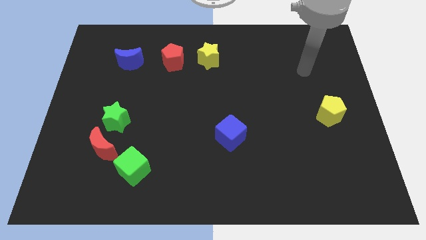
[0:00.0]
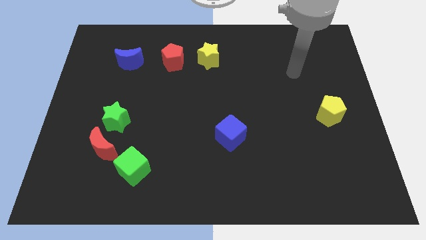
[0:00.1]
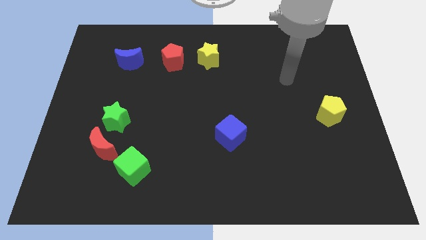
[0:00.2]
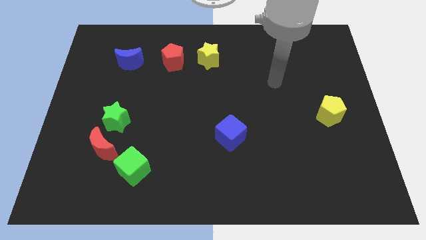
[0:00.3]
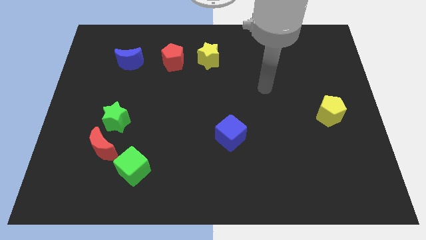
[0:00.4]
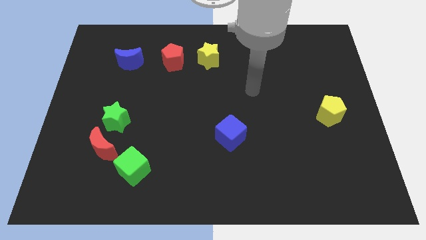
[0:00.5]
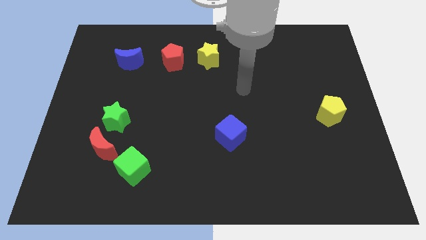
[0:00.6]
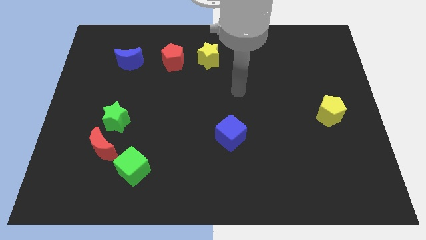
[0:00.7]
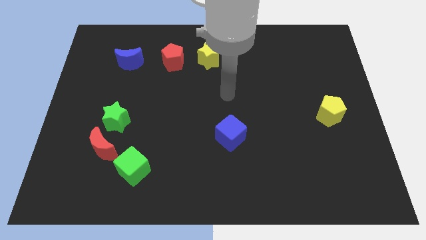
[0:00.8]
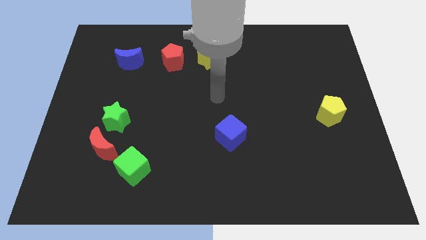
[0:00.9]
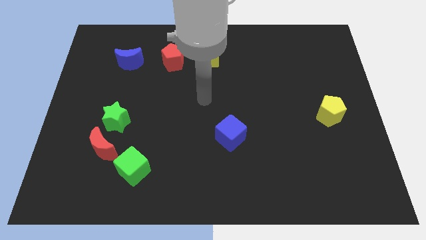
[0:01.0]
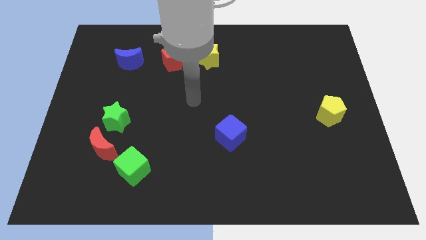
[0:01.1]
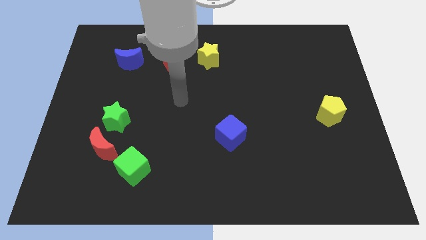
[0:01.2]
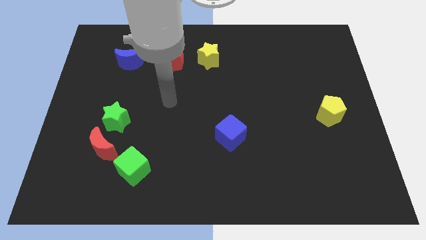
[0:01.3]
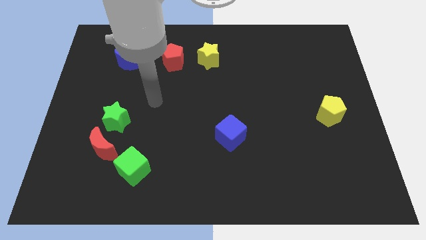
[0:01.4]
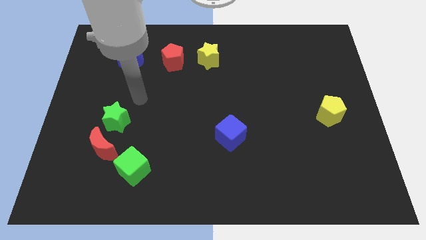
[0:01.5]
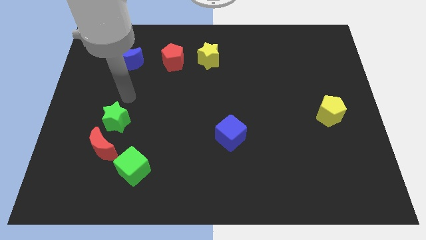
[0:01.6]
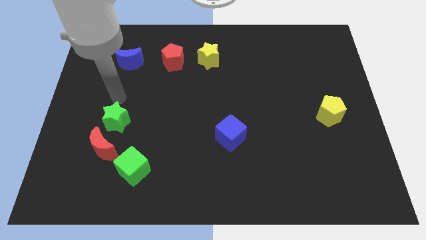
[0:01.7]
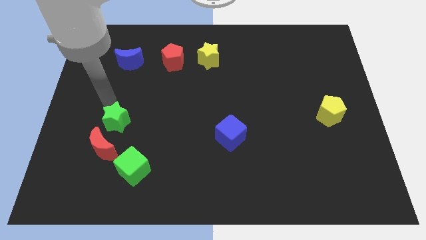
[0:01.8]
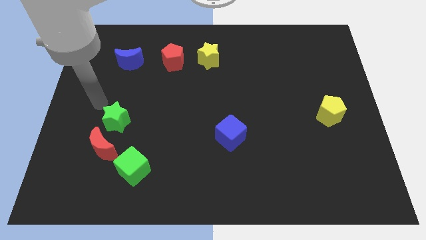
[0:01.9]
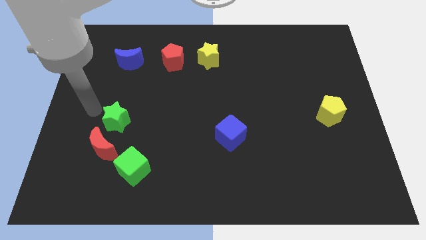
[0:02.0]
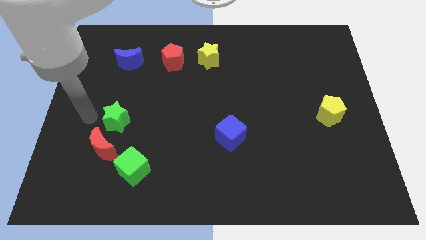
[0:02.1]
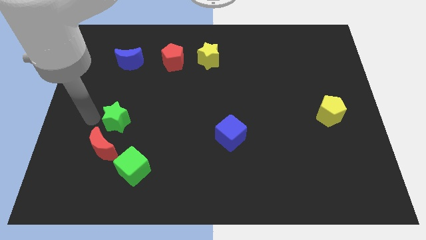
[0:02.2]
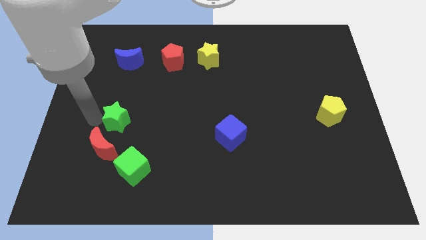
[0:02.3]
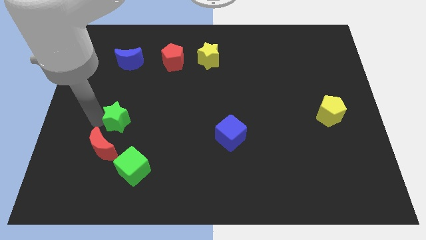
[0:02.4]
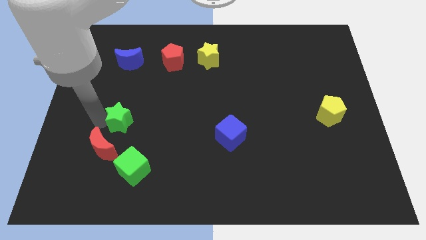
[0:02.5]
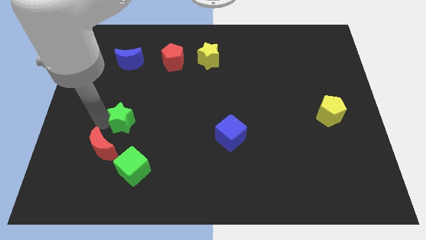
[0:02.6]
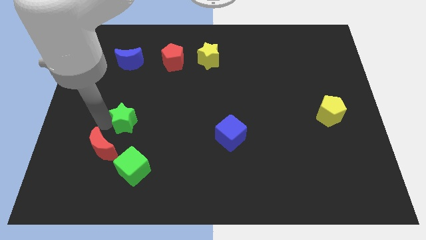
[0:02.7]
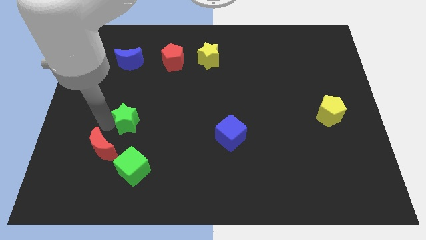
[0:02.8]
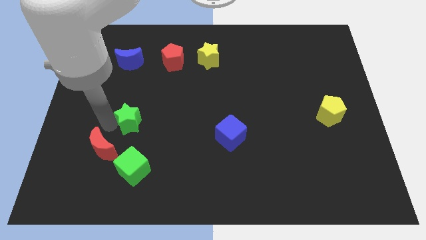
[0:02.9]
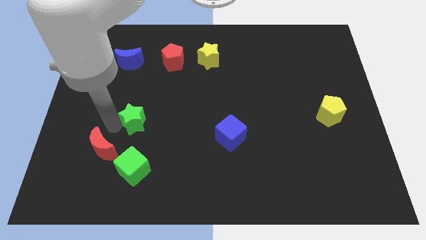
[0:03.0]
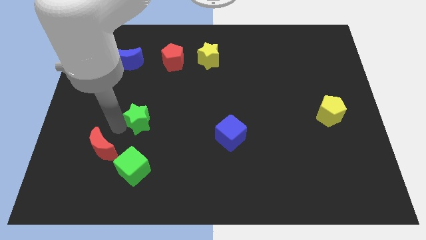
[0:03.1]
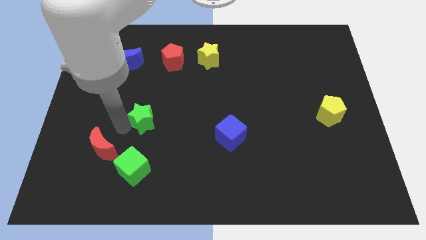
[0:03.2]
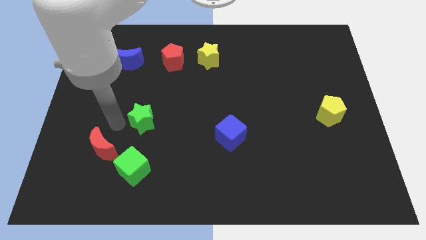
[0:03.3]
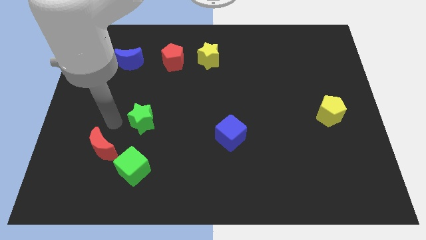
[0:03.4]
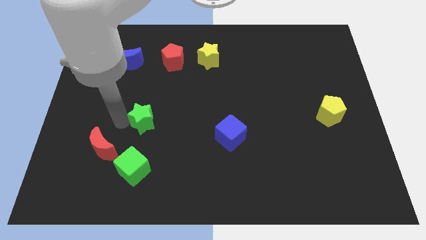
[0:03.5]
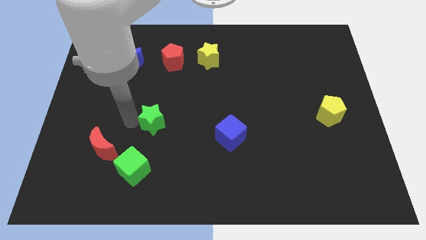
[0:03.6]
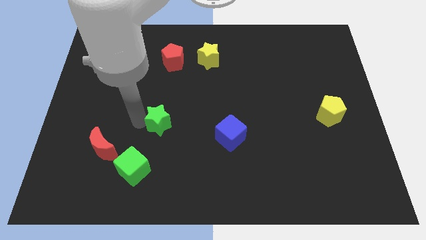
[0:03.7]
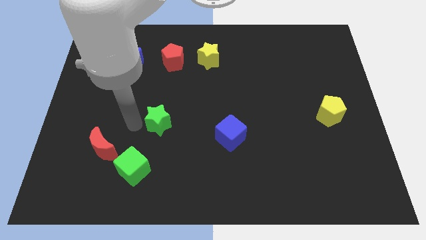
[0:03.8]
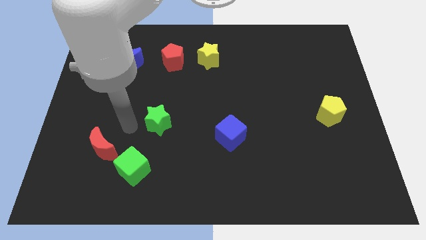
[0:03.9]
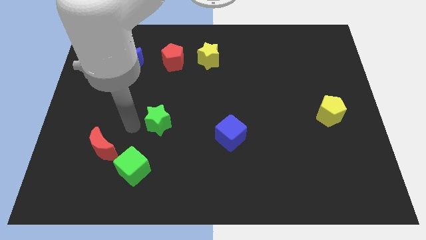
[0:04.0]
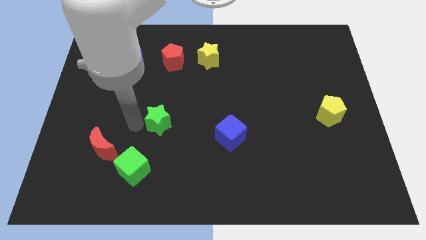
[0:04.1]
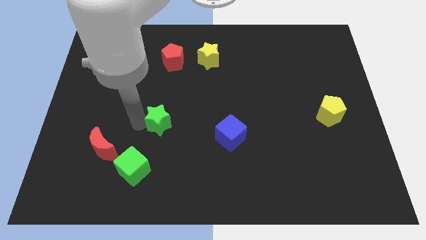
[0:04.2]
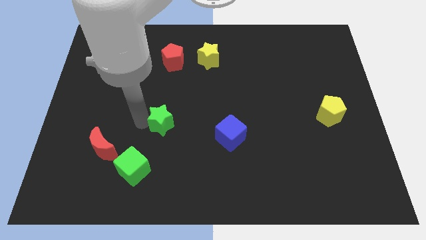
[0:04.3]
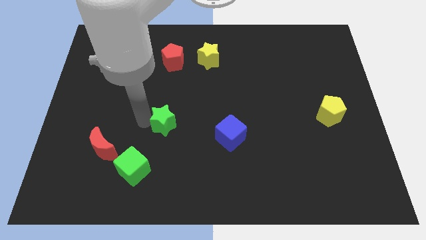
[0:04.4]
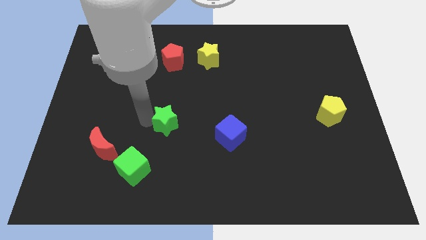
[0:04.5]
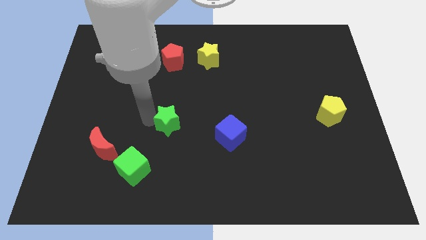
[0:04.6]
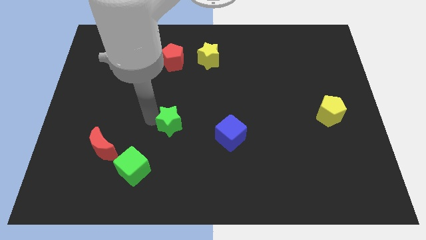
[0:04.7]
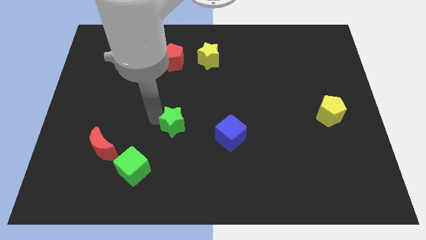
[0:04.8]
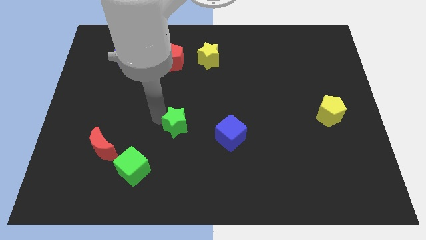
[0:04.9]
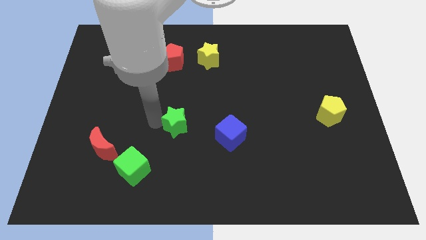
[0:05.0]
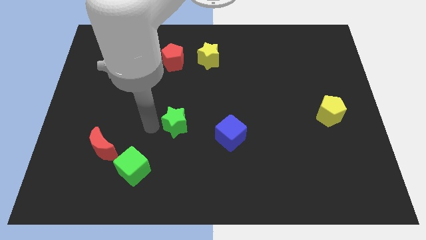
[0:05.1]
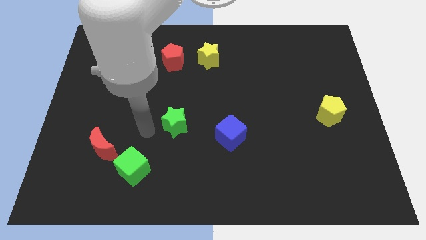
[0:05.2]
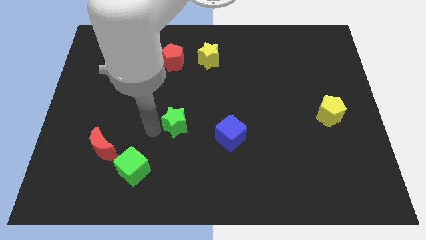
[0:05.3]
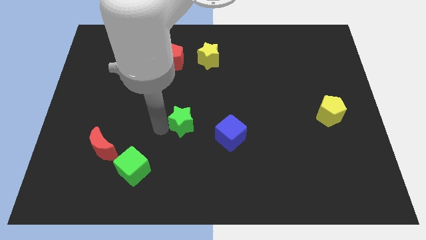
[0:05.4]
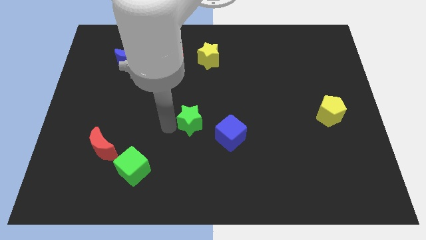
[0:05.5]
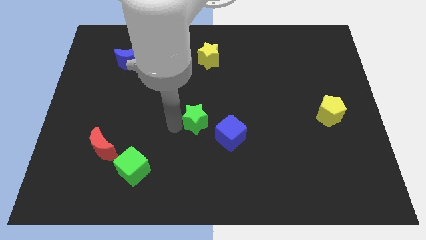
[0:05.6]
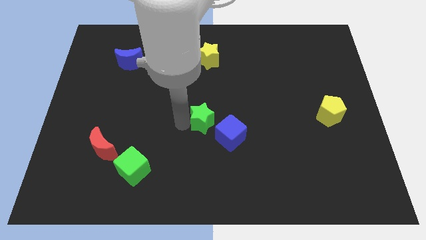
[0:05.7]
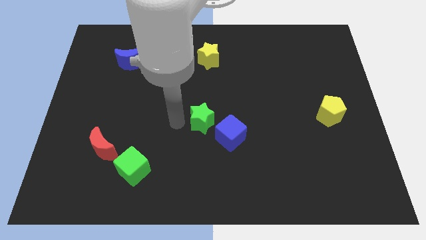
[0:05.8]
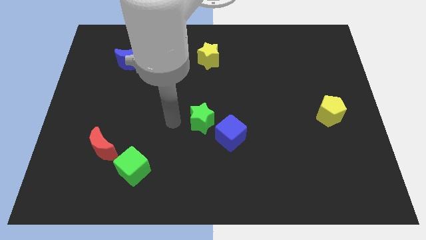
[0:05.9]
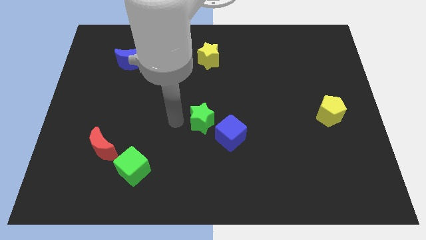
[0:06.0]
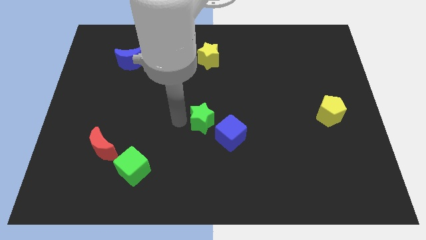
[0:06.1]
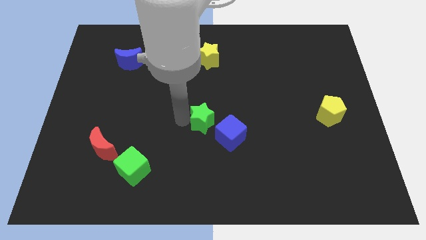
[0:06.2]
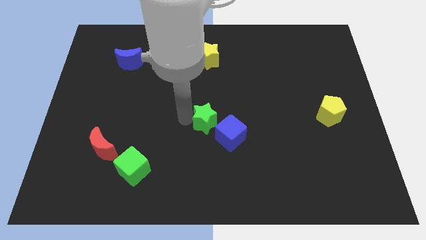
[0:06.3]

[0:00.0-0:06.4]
move the green star right

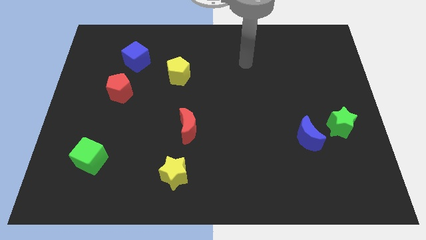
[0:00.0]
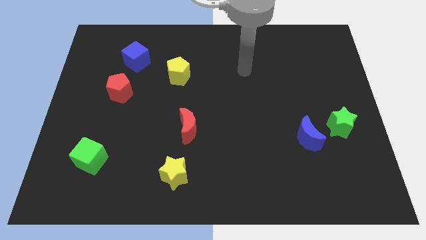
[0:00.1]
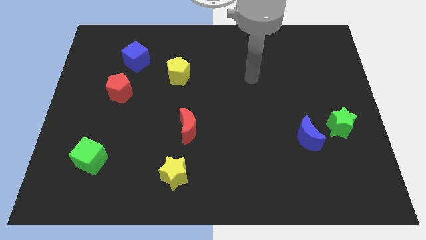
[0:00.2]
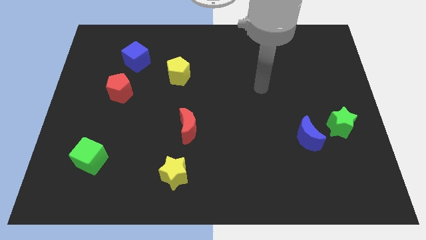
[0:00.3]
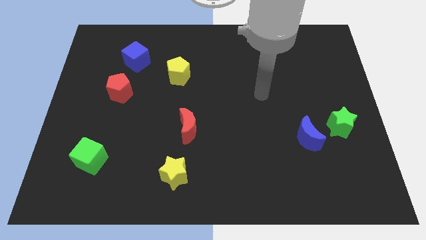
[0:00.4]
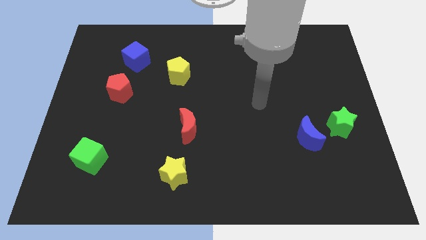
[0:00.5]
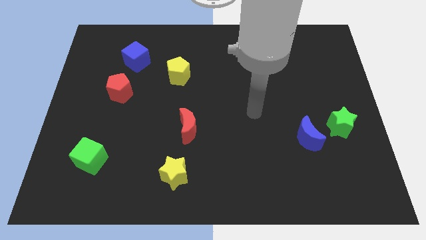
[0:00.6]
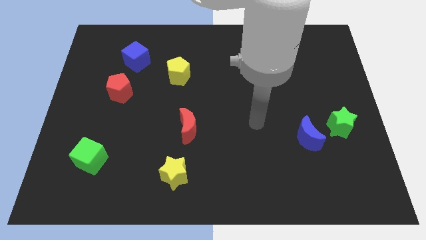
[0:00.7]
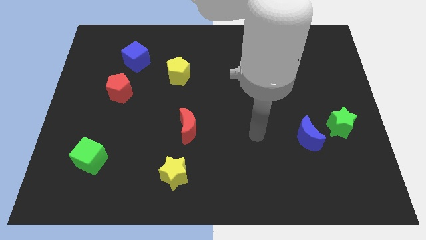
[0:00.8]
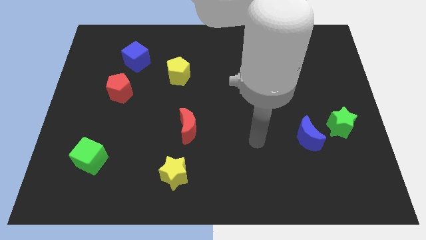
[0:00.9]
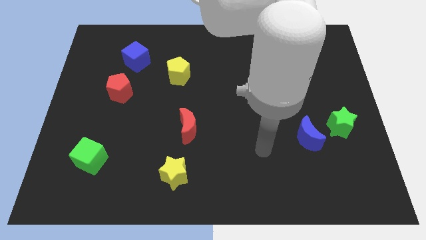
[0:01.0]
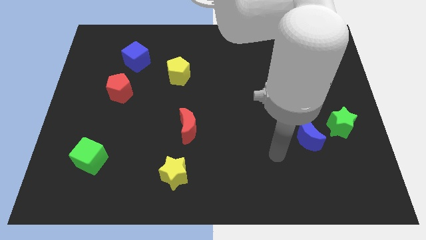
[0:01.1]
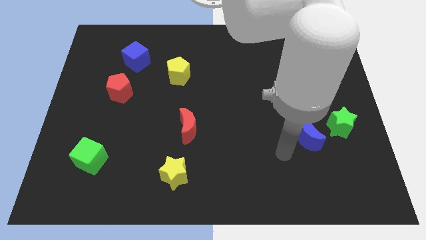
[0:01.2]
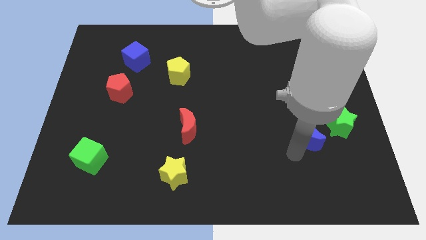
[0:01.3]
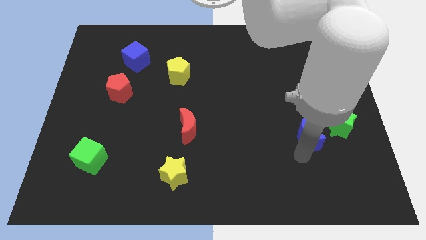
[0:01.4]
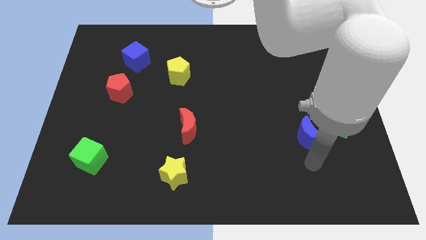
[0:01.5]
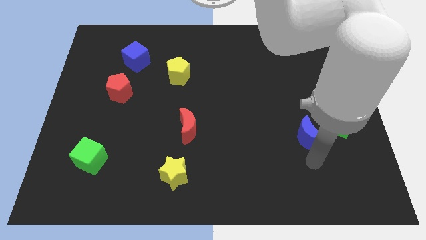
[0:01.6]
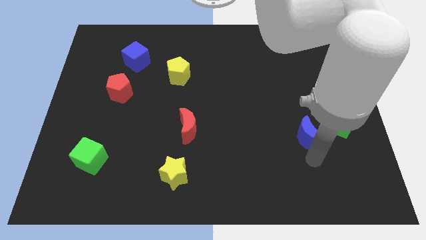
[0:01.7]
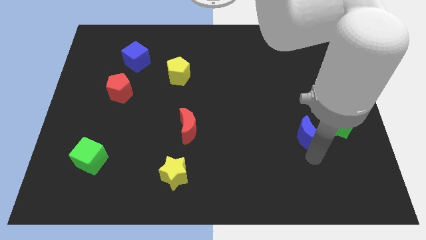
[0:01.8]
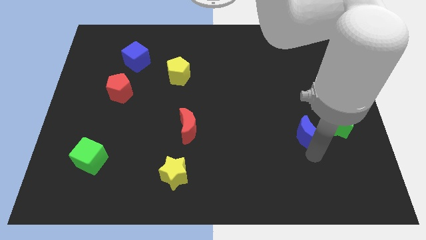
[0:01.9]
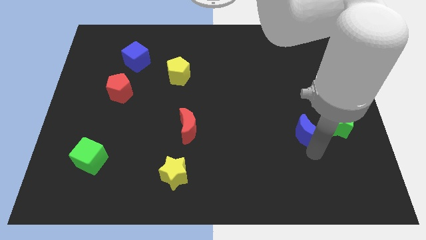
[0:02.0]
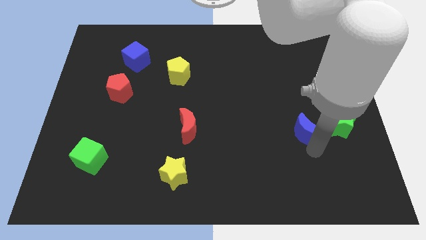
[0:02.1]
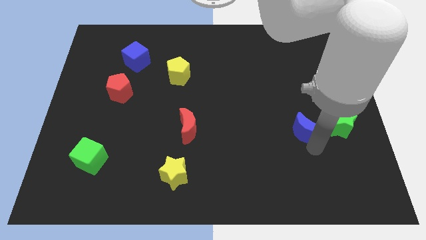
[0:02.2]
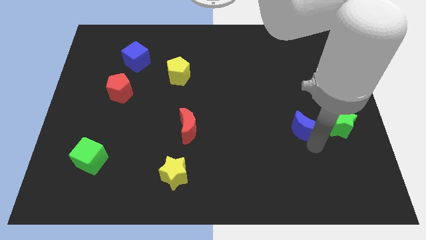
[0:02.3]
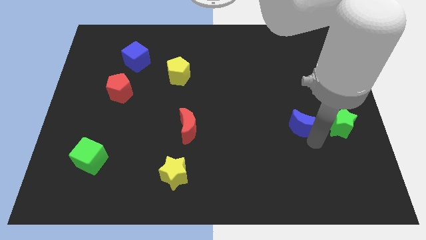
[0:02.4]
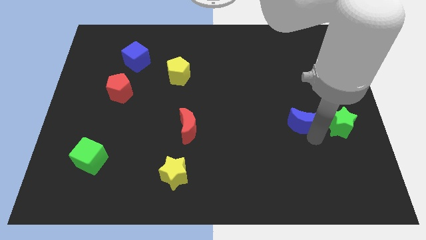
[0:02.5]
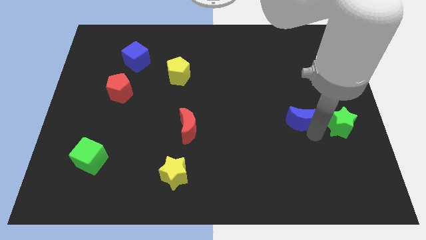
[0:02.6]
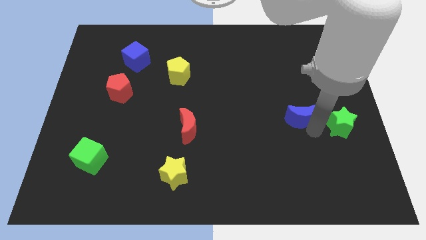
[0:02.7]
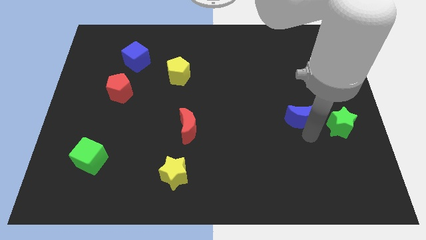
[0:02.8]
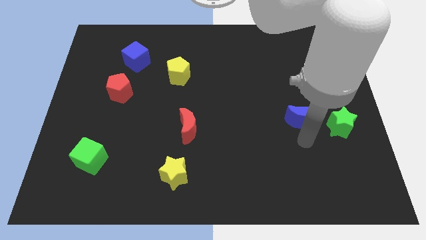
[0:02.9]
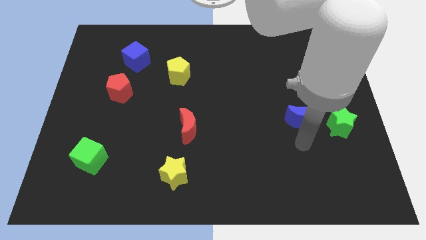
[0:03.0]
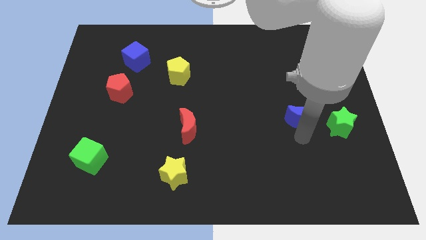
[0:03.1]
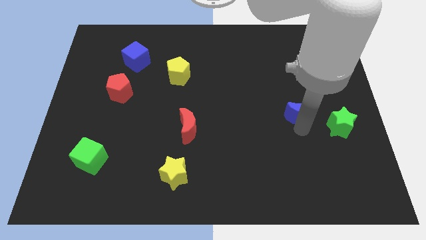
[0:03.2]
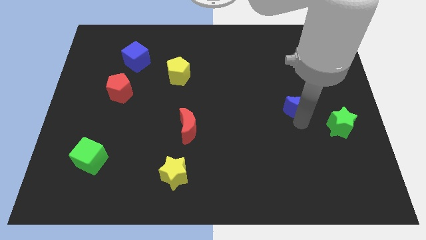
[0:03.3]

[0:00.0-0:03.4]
slide the blue moon up a bit
